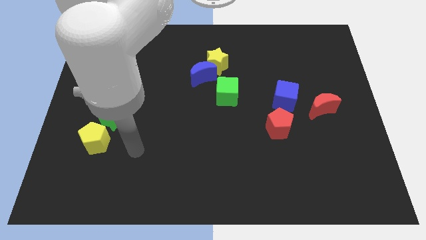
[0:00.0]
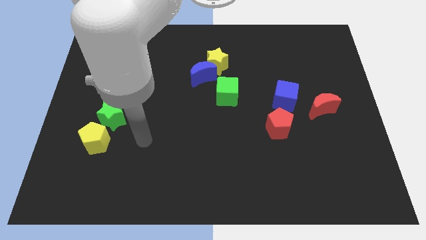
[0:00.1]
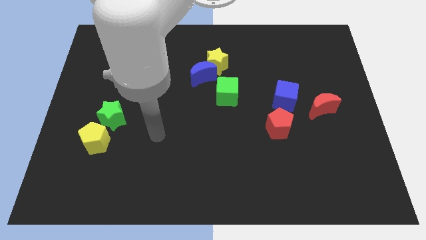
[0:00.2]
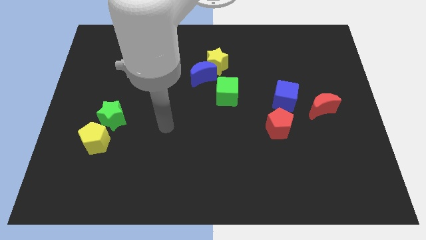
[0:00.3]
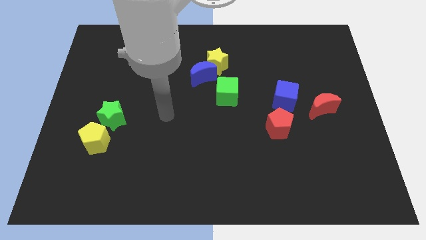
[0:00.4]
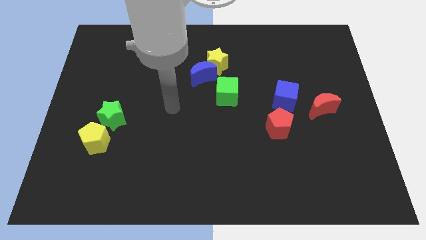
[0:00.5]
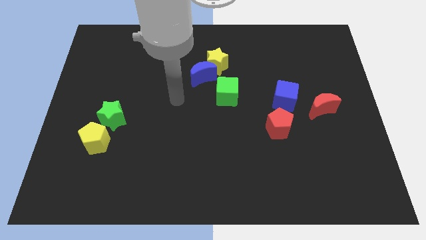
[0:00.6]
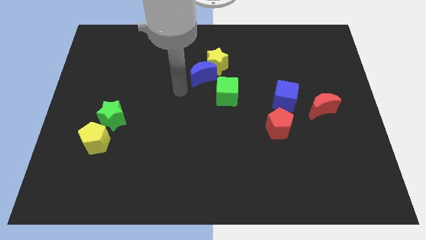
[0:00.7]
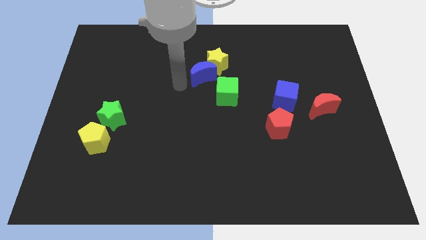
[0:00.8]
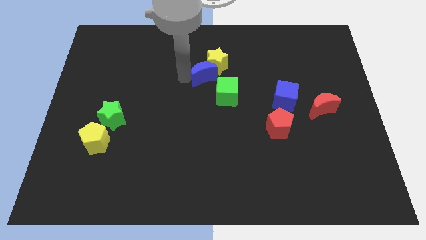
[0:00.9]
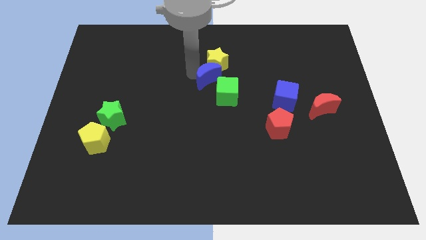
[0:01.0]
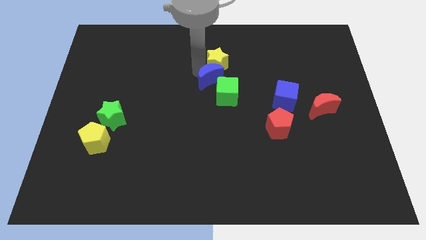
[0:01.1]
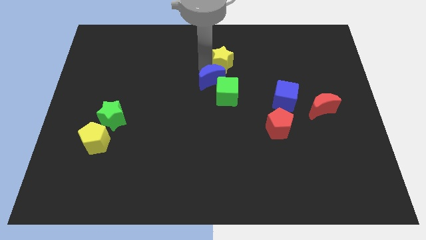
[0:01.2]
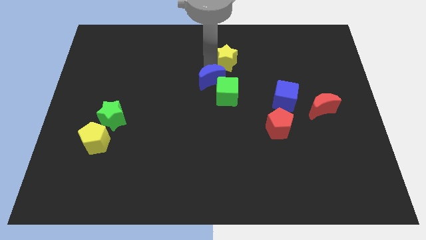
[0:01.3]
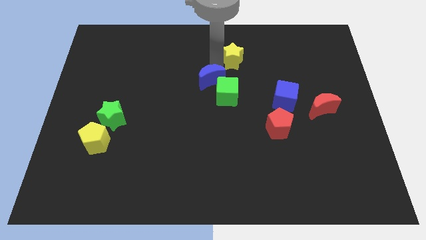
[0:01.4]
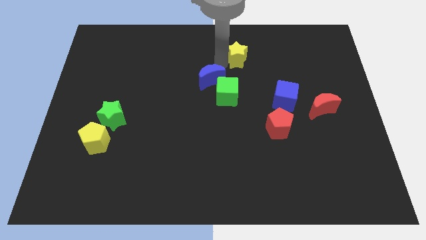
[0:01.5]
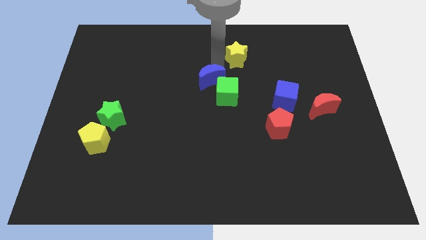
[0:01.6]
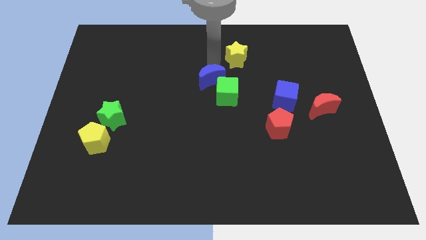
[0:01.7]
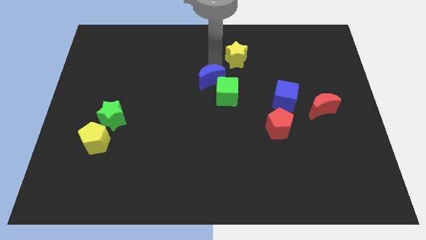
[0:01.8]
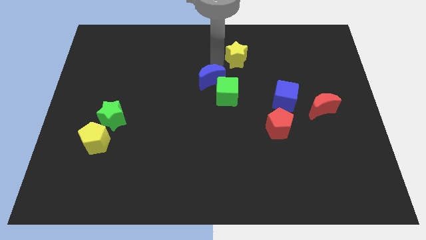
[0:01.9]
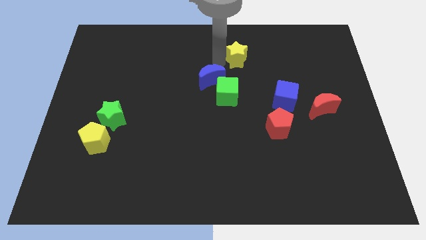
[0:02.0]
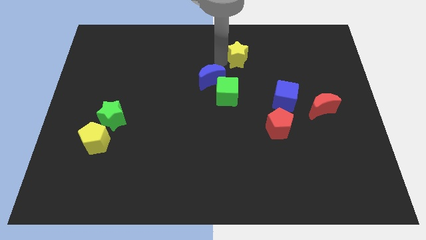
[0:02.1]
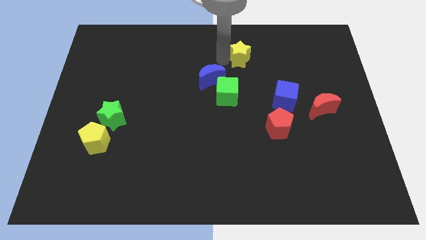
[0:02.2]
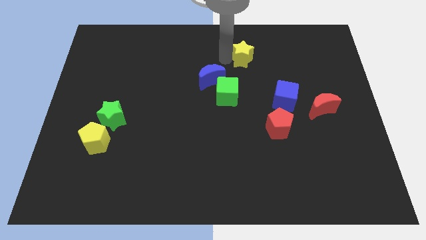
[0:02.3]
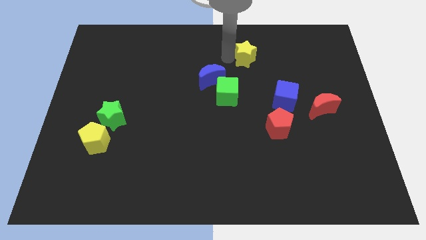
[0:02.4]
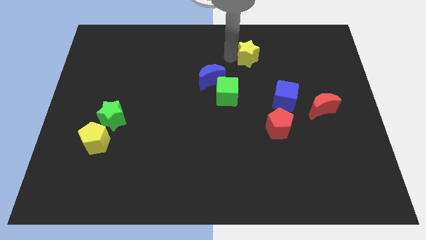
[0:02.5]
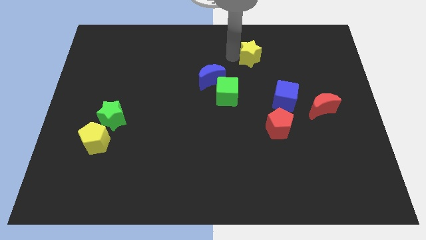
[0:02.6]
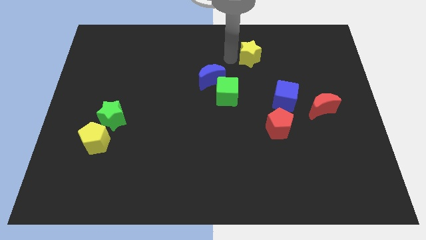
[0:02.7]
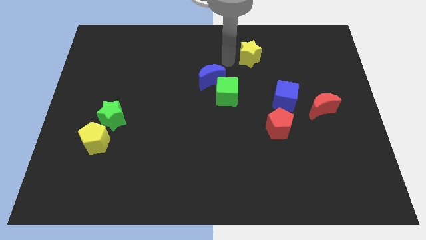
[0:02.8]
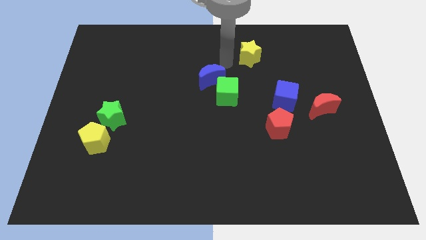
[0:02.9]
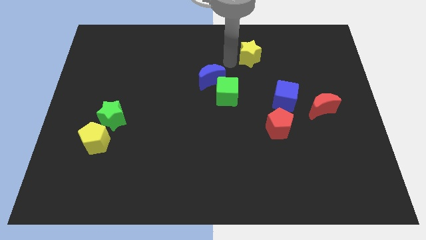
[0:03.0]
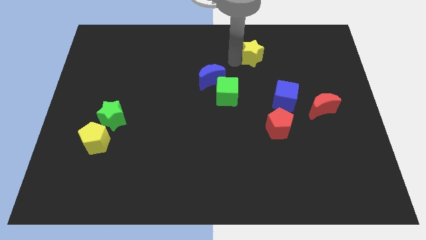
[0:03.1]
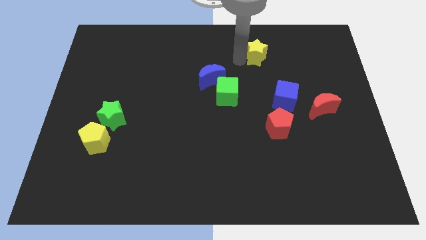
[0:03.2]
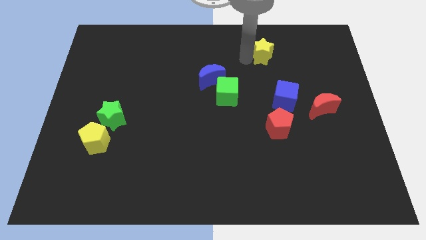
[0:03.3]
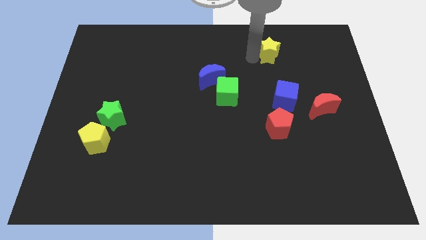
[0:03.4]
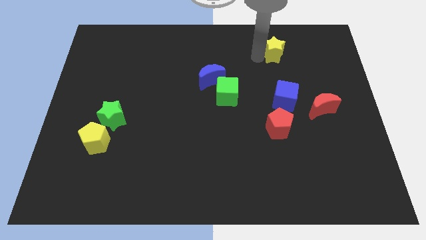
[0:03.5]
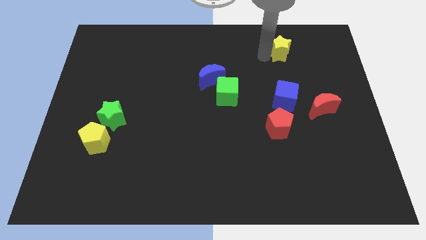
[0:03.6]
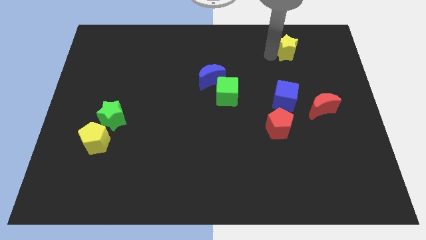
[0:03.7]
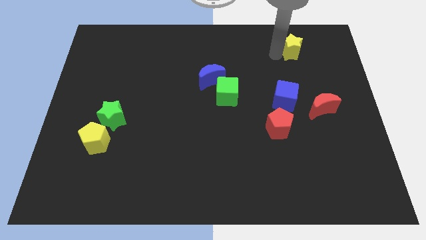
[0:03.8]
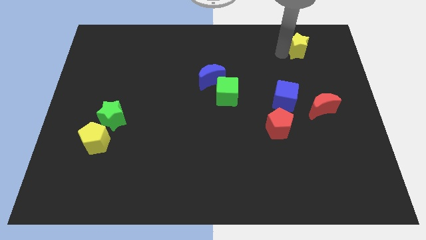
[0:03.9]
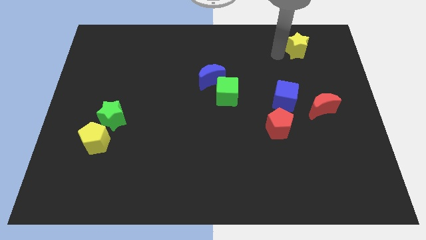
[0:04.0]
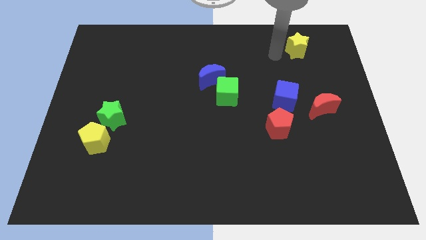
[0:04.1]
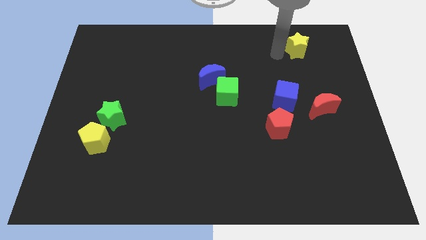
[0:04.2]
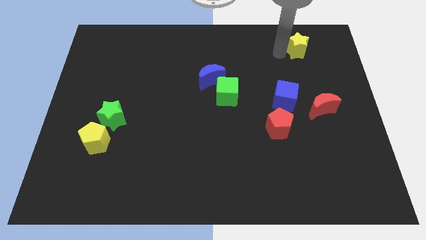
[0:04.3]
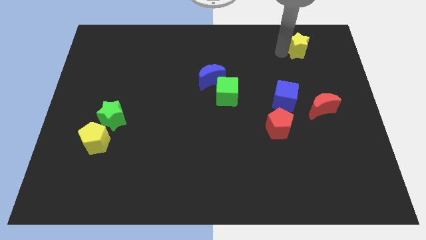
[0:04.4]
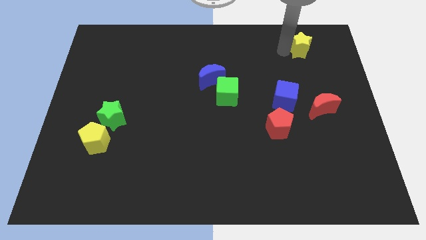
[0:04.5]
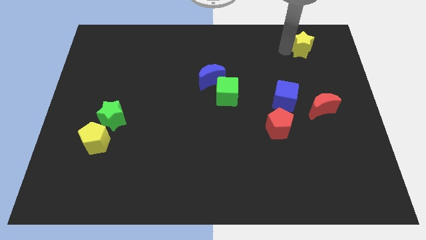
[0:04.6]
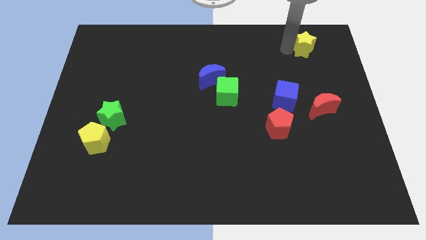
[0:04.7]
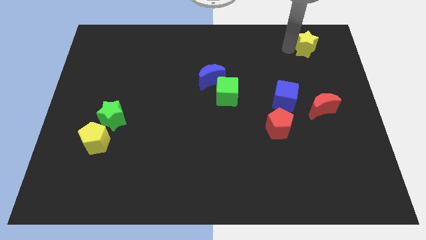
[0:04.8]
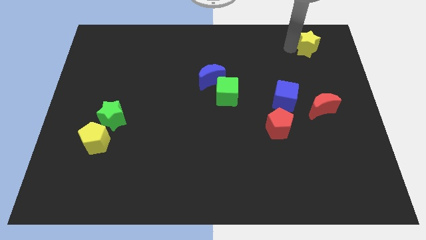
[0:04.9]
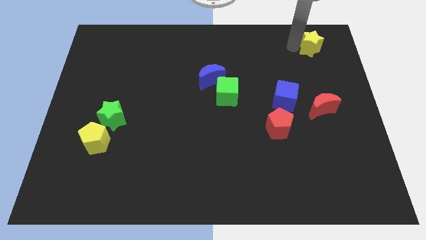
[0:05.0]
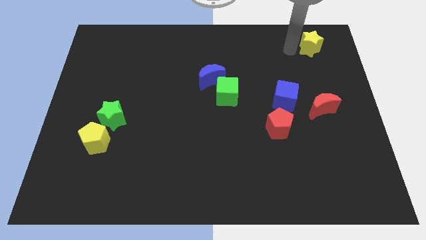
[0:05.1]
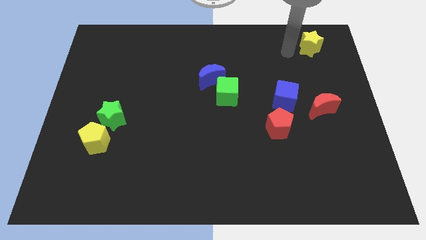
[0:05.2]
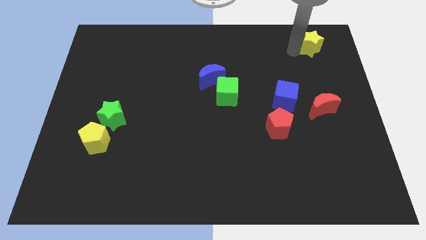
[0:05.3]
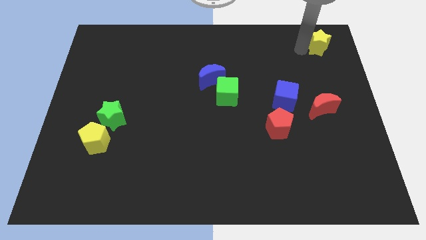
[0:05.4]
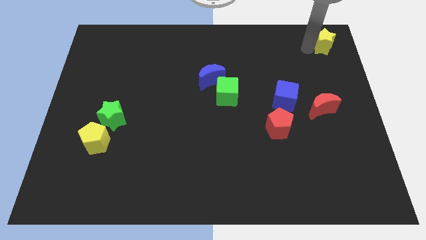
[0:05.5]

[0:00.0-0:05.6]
put the yellow star to the top right

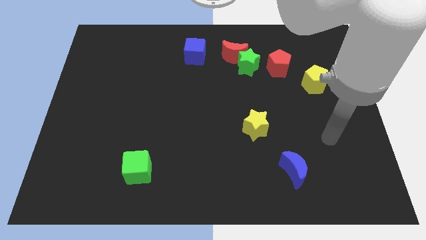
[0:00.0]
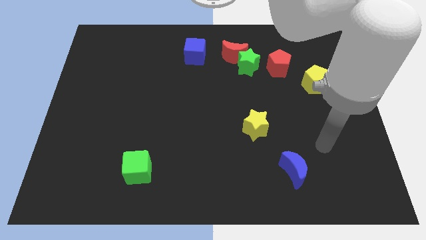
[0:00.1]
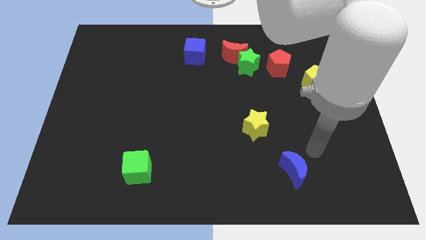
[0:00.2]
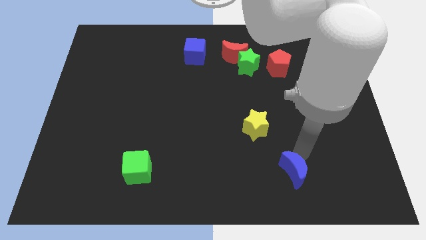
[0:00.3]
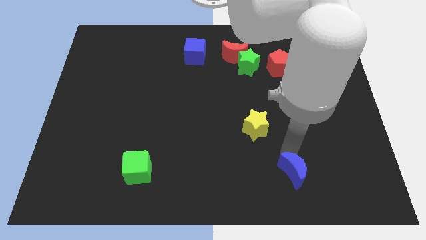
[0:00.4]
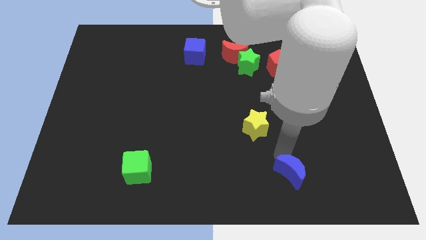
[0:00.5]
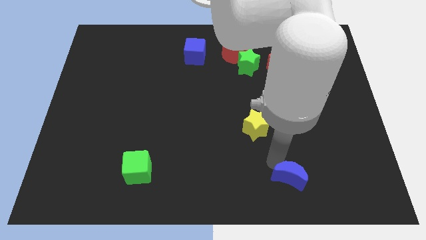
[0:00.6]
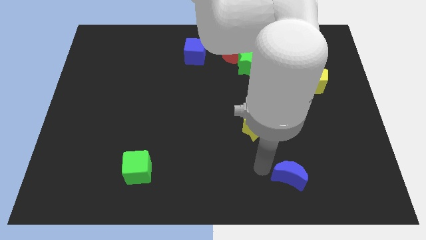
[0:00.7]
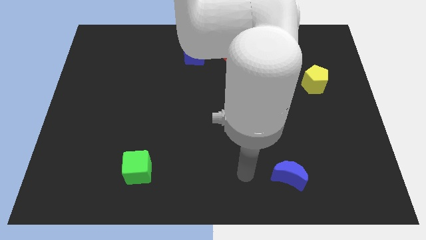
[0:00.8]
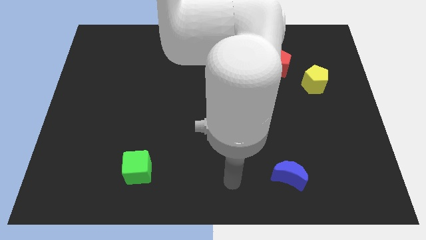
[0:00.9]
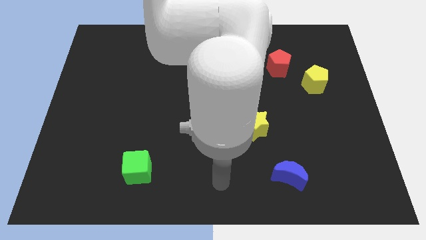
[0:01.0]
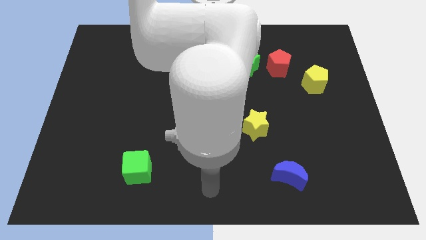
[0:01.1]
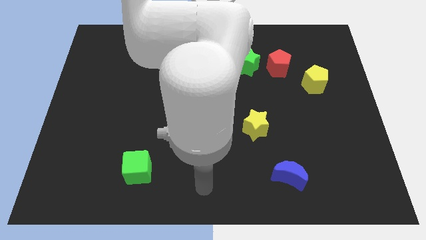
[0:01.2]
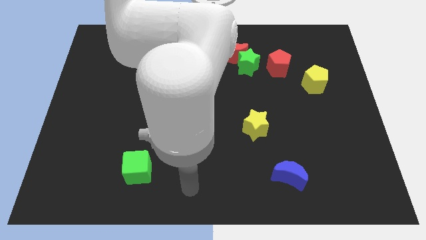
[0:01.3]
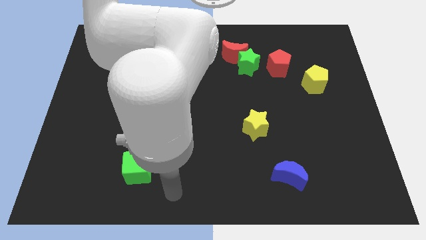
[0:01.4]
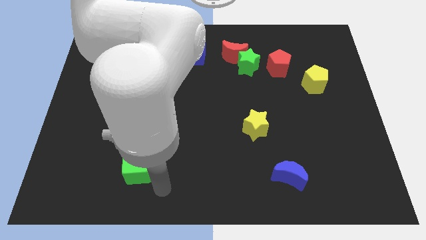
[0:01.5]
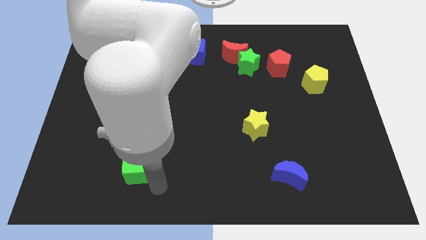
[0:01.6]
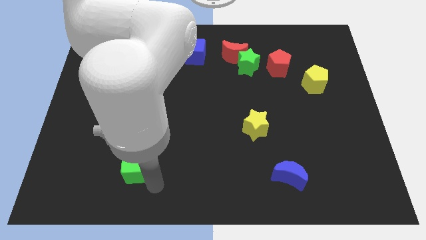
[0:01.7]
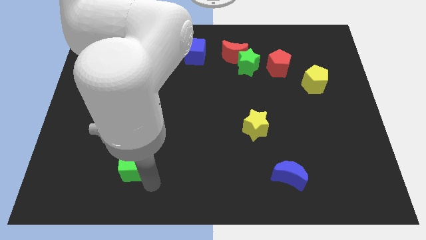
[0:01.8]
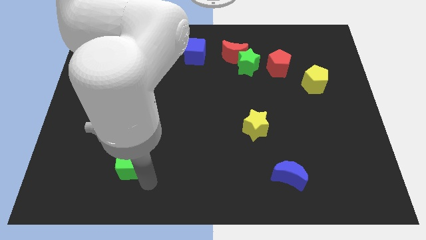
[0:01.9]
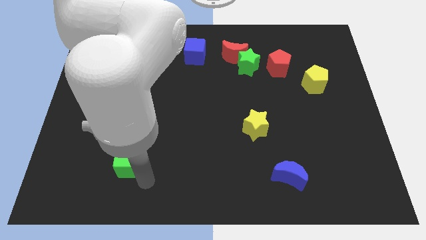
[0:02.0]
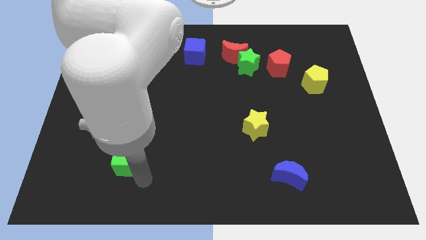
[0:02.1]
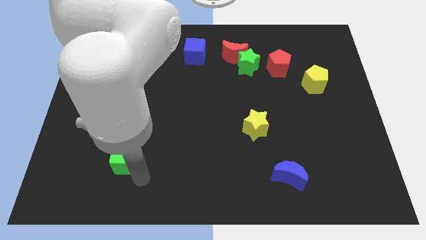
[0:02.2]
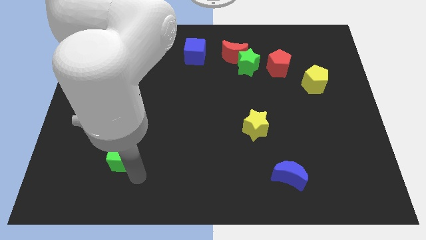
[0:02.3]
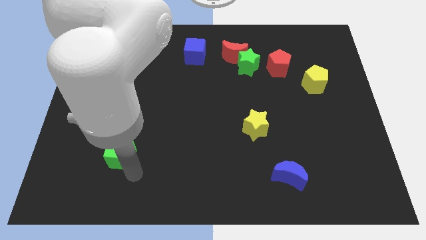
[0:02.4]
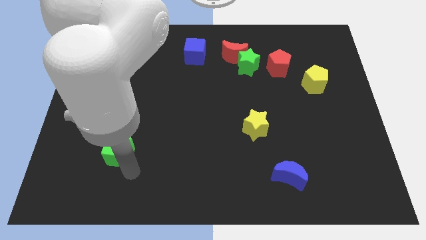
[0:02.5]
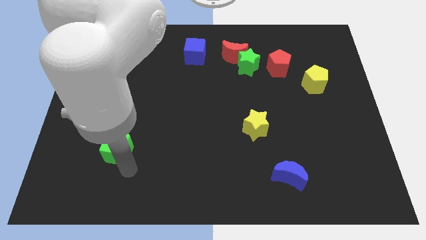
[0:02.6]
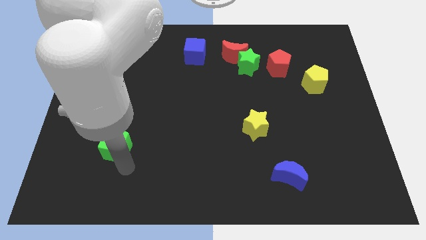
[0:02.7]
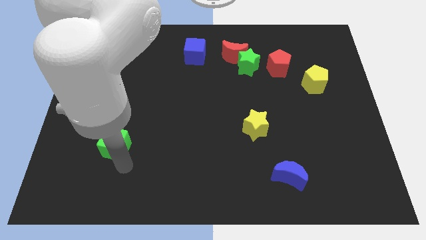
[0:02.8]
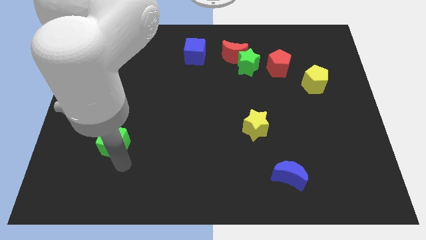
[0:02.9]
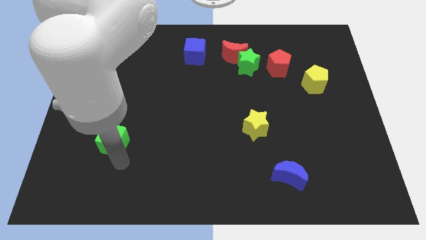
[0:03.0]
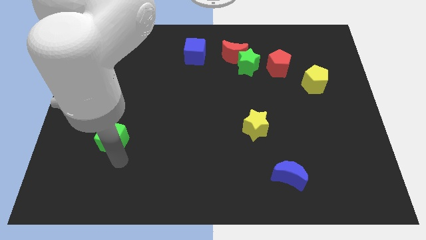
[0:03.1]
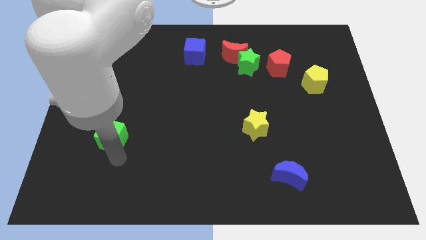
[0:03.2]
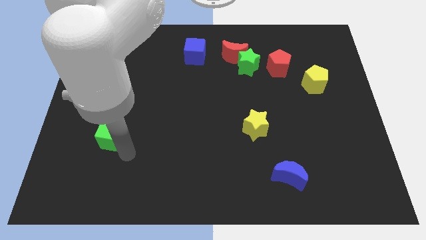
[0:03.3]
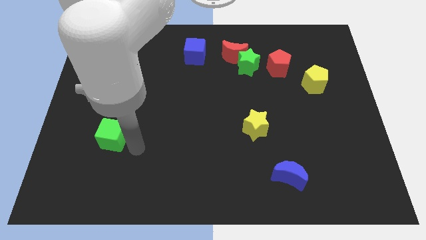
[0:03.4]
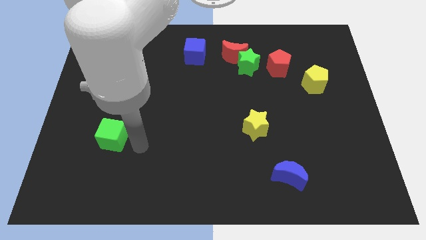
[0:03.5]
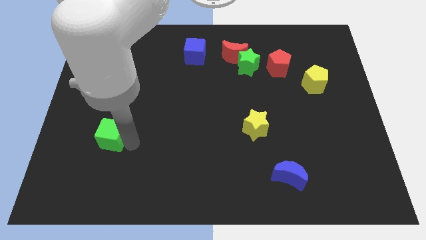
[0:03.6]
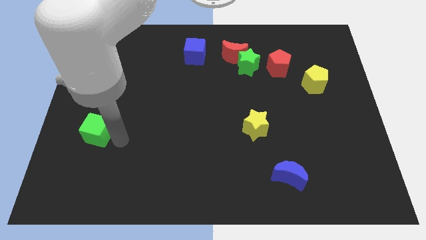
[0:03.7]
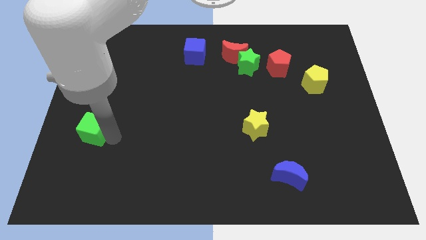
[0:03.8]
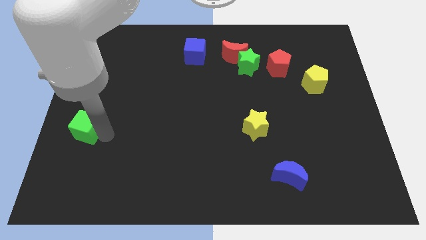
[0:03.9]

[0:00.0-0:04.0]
put the green cube to the center left
